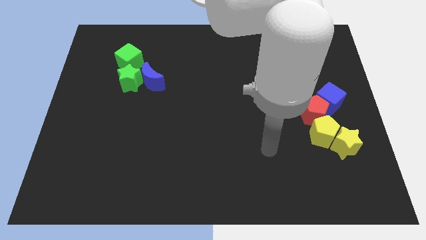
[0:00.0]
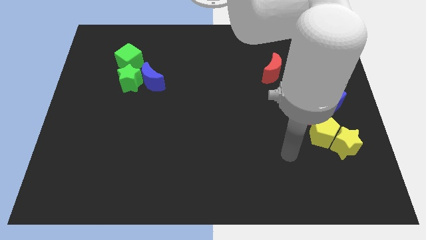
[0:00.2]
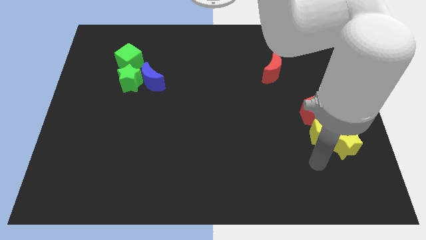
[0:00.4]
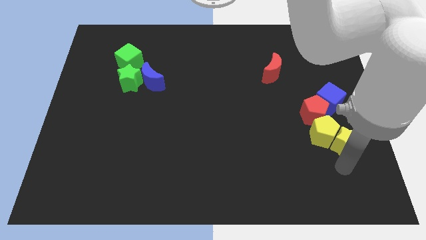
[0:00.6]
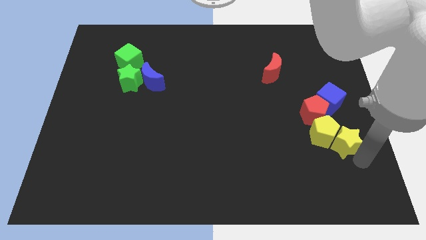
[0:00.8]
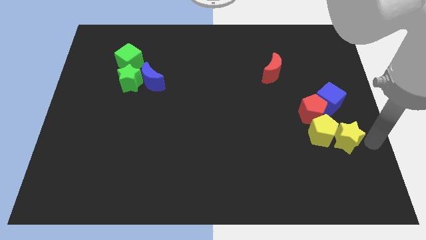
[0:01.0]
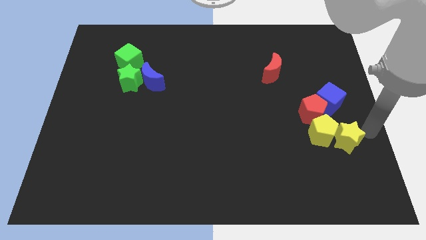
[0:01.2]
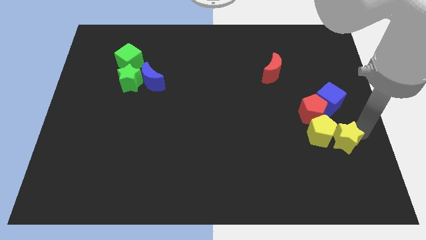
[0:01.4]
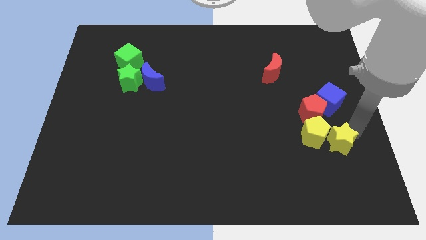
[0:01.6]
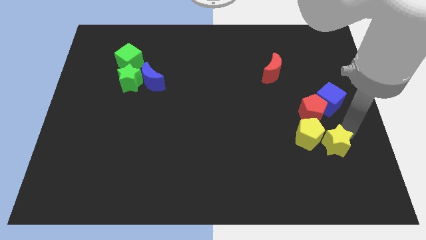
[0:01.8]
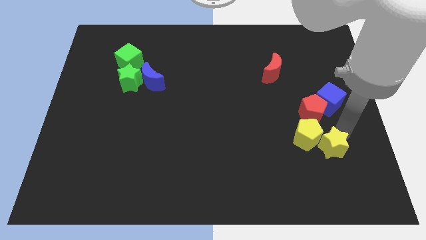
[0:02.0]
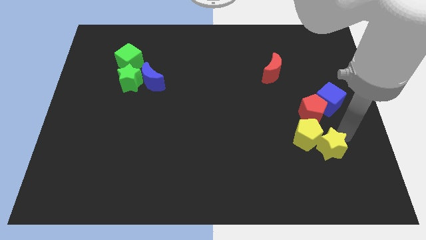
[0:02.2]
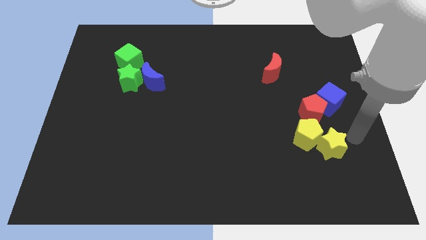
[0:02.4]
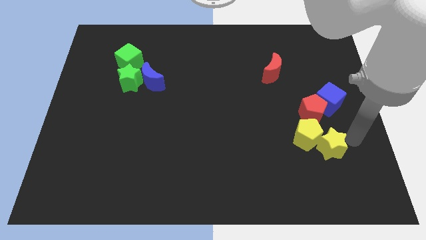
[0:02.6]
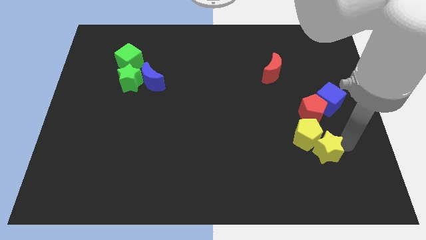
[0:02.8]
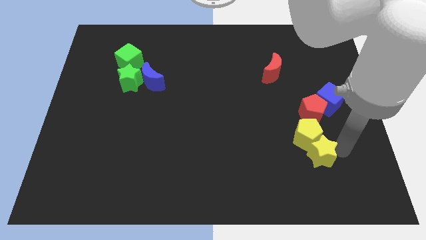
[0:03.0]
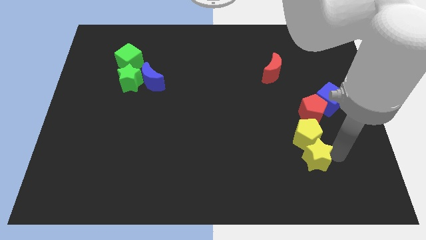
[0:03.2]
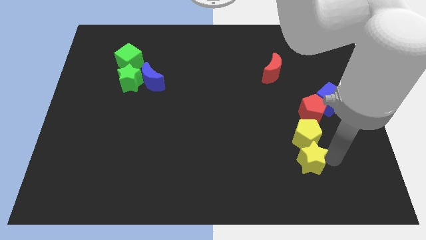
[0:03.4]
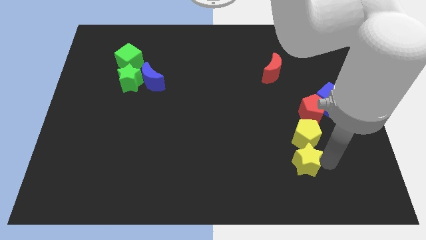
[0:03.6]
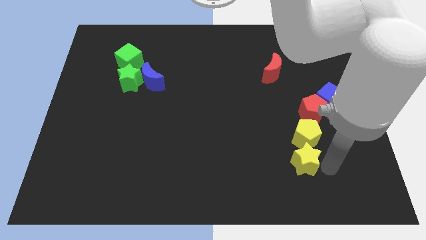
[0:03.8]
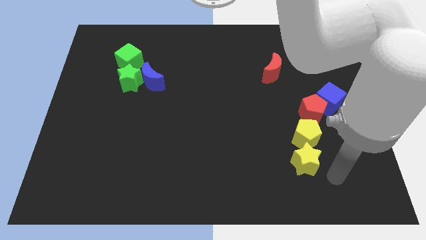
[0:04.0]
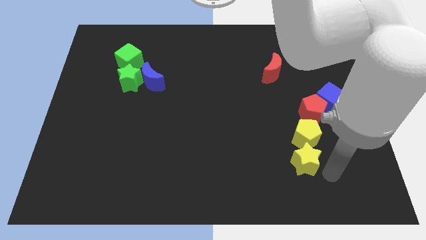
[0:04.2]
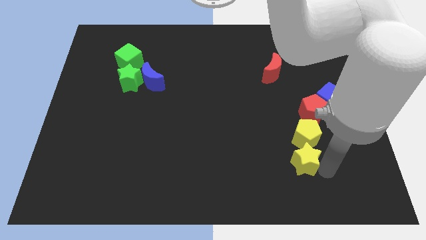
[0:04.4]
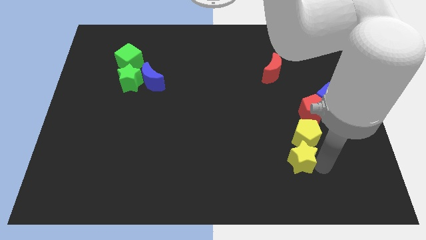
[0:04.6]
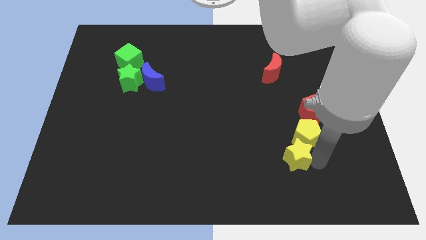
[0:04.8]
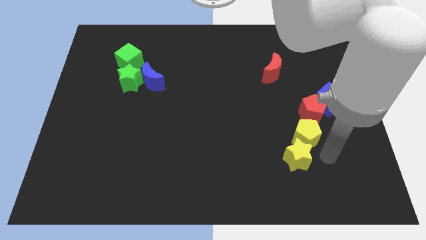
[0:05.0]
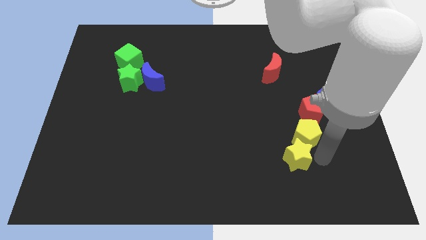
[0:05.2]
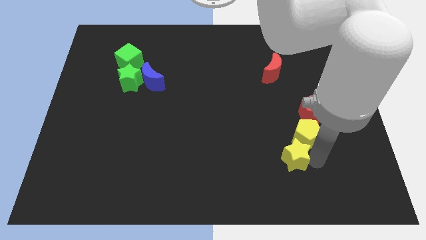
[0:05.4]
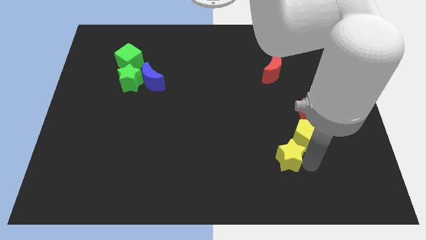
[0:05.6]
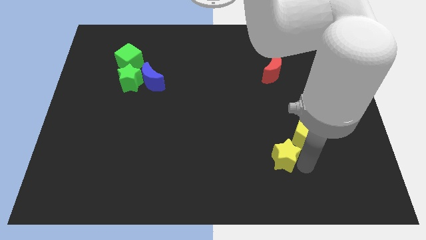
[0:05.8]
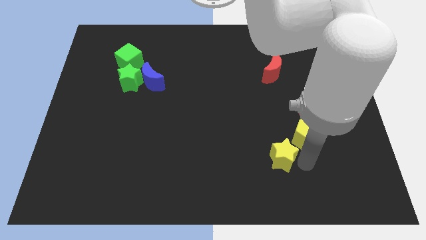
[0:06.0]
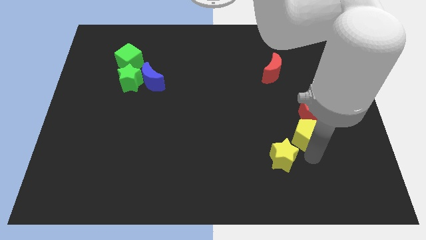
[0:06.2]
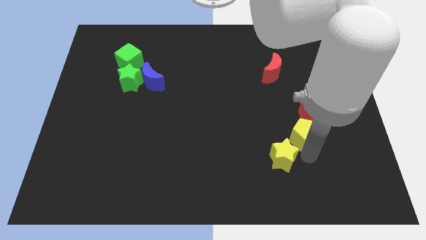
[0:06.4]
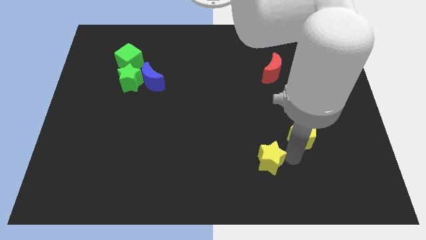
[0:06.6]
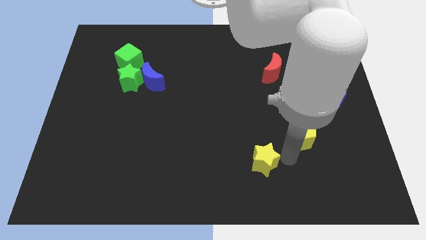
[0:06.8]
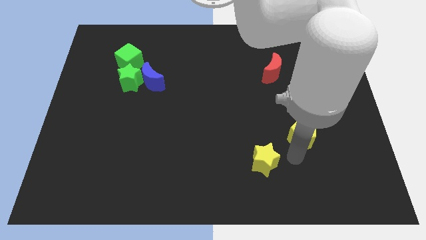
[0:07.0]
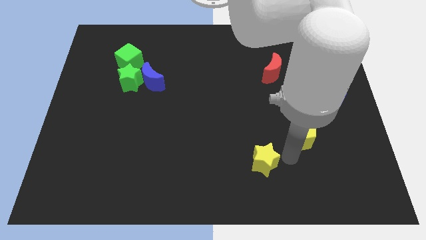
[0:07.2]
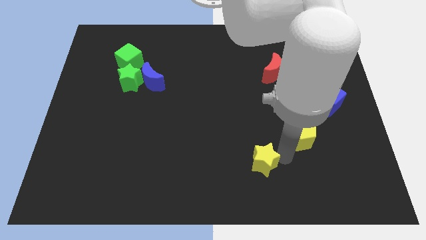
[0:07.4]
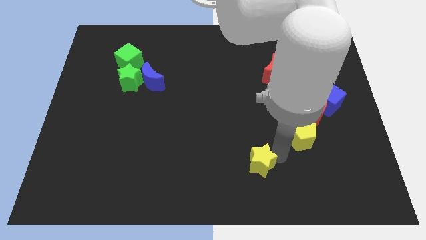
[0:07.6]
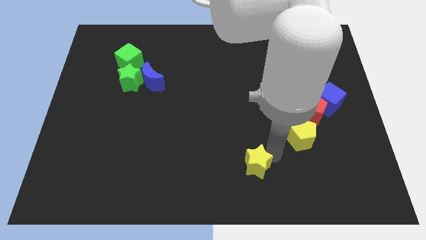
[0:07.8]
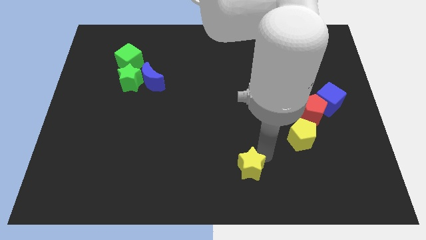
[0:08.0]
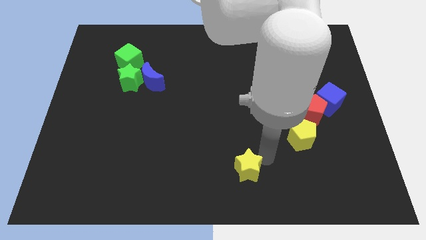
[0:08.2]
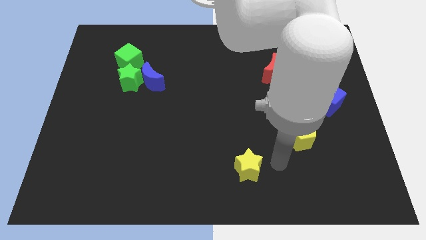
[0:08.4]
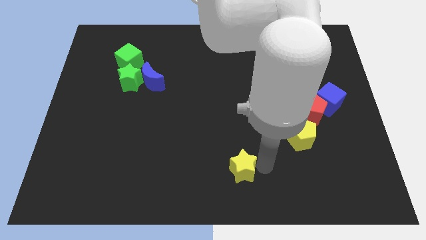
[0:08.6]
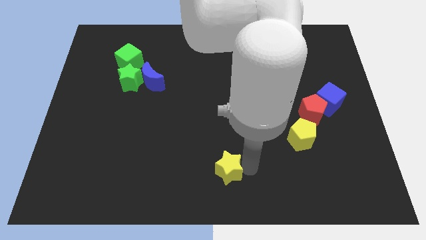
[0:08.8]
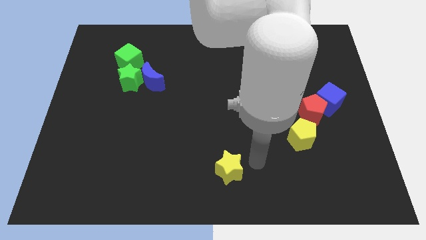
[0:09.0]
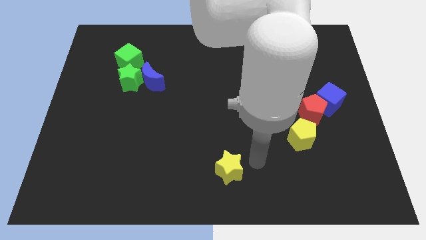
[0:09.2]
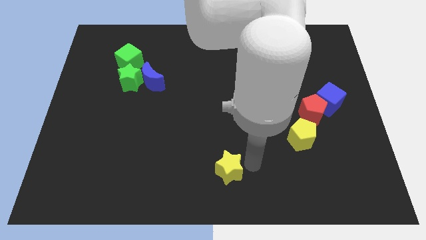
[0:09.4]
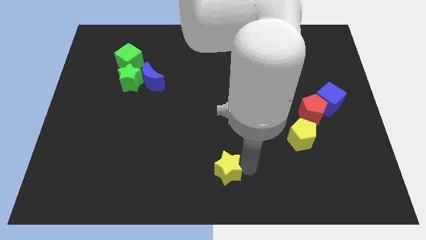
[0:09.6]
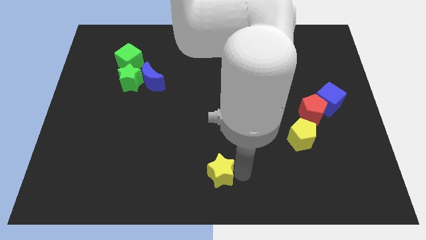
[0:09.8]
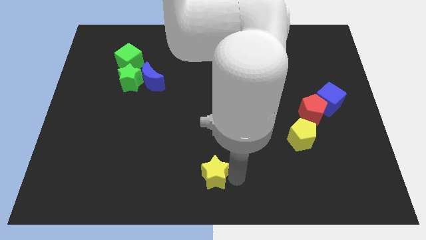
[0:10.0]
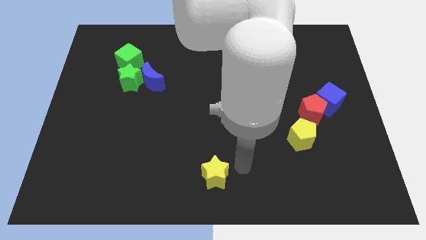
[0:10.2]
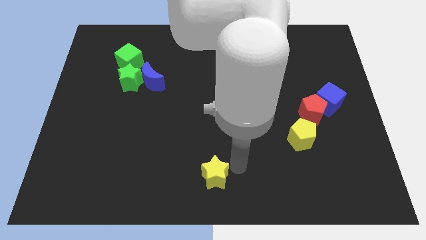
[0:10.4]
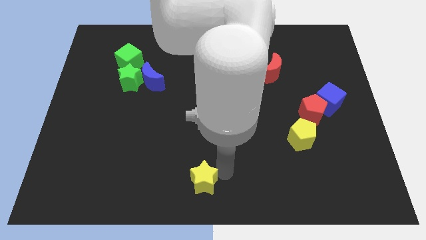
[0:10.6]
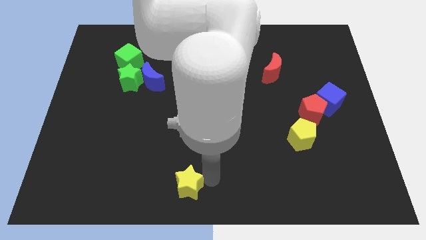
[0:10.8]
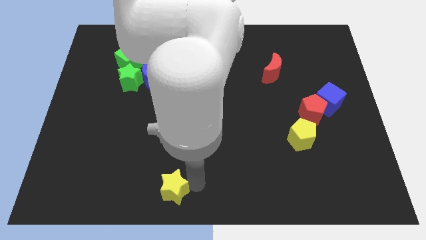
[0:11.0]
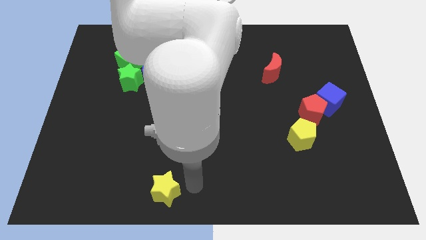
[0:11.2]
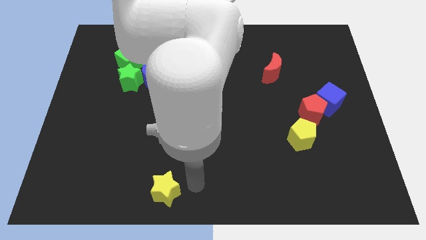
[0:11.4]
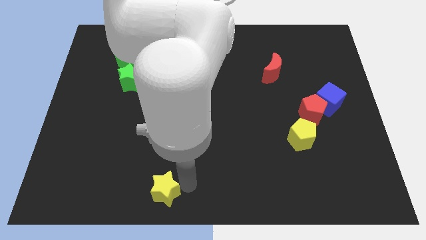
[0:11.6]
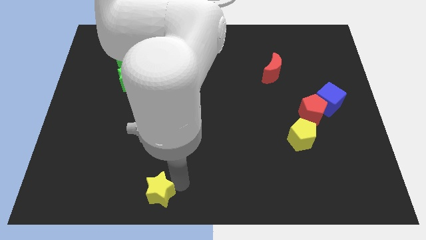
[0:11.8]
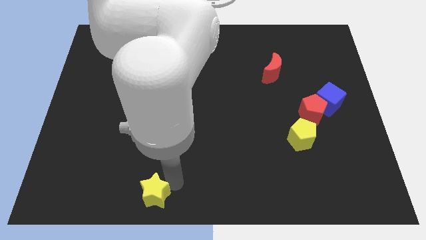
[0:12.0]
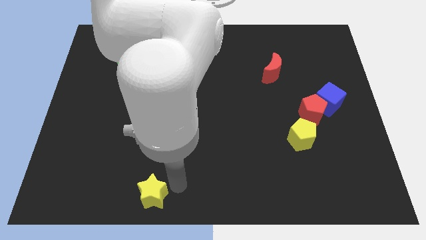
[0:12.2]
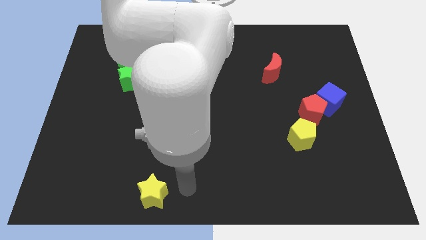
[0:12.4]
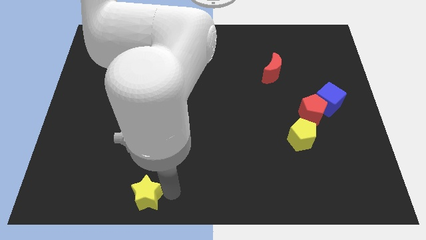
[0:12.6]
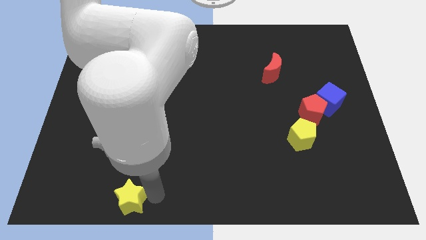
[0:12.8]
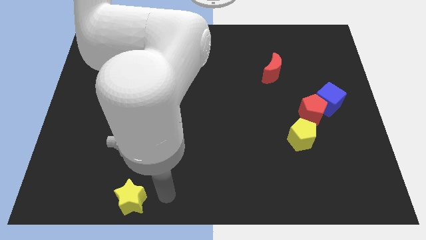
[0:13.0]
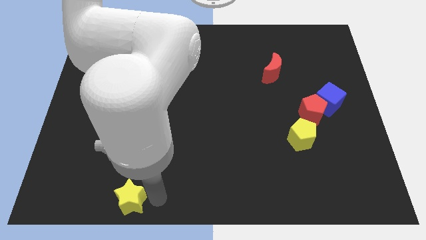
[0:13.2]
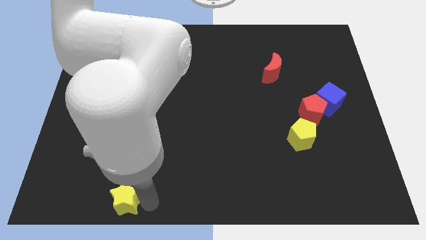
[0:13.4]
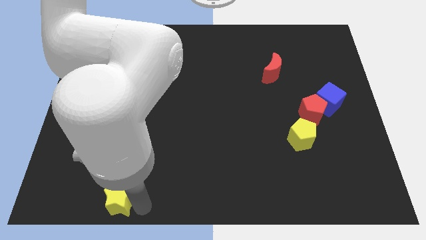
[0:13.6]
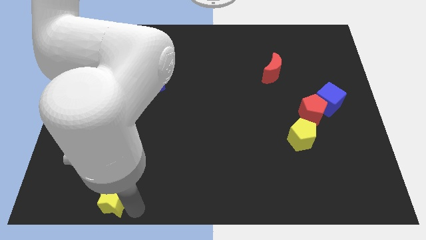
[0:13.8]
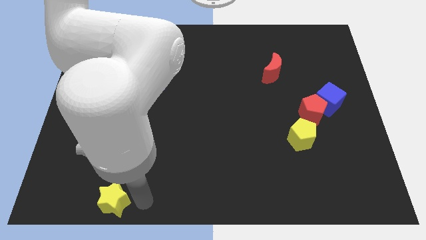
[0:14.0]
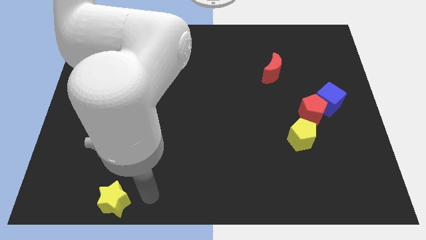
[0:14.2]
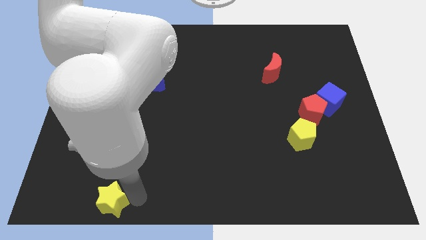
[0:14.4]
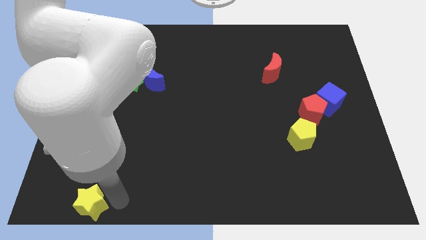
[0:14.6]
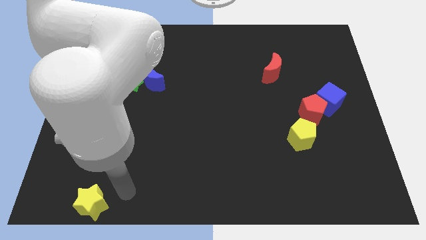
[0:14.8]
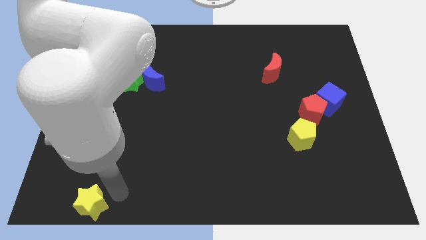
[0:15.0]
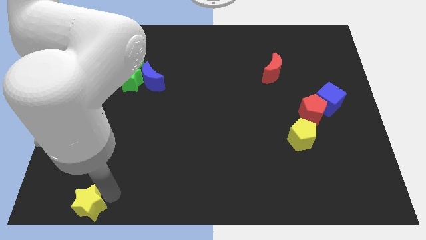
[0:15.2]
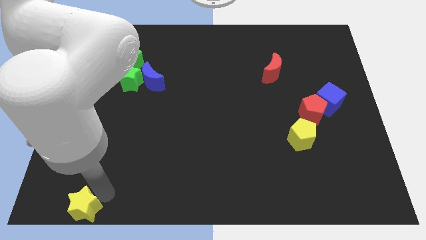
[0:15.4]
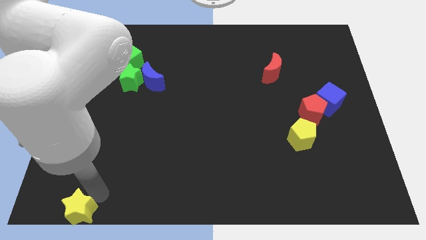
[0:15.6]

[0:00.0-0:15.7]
slide the yellow star to the bottom left
